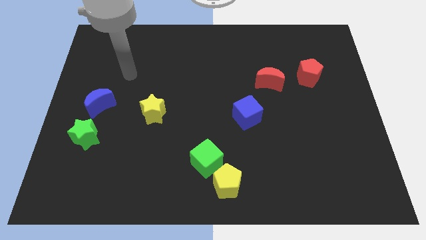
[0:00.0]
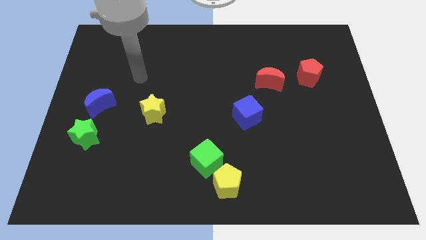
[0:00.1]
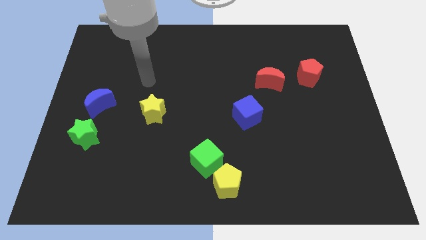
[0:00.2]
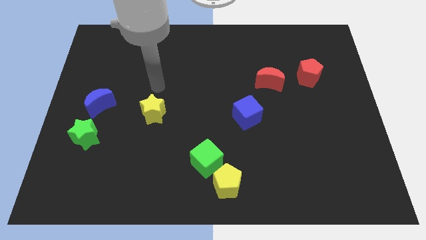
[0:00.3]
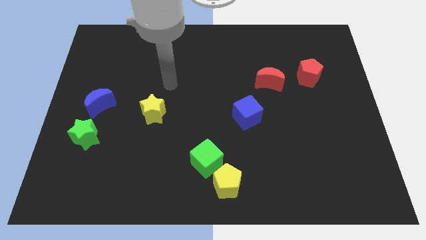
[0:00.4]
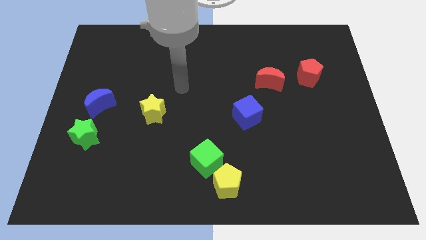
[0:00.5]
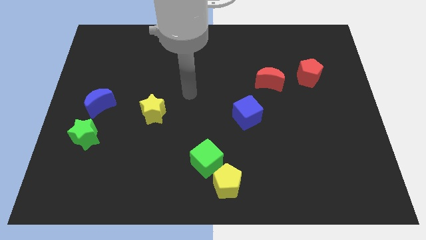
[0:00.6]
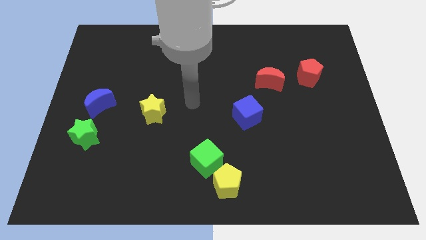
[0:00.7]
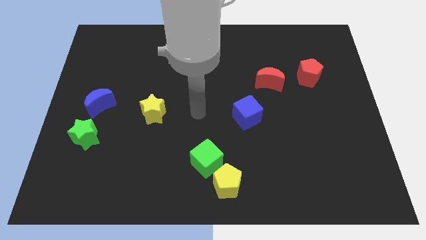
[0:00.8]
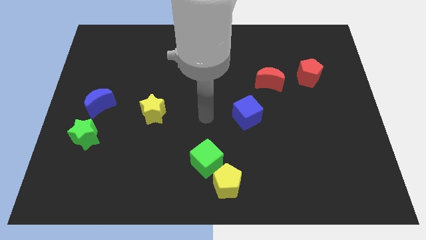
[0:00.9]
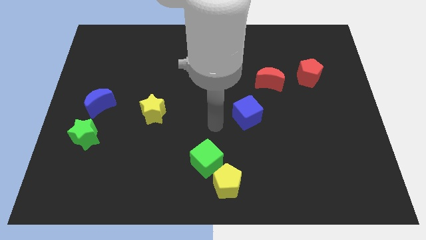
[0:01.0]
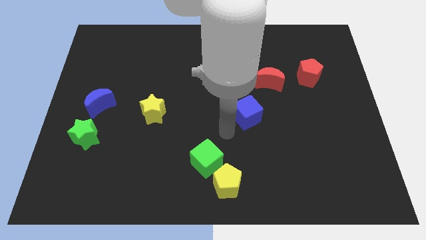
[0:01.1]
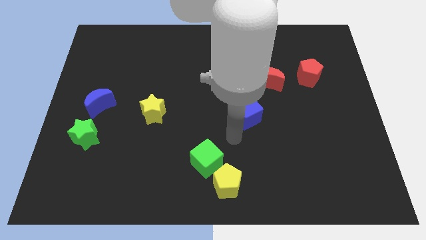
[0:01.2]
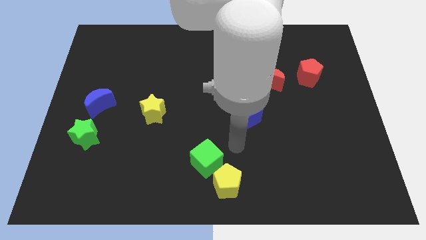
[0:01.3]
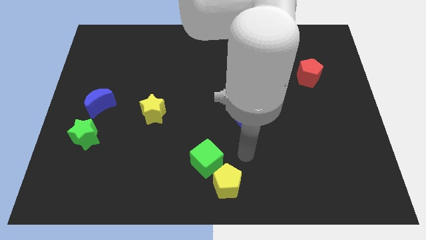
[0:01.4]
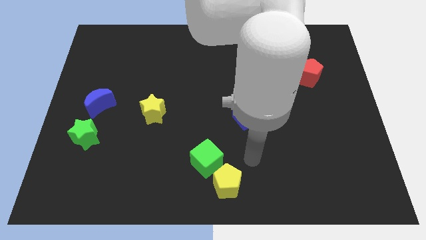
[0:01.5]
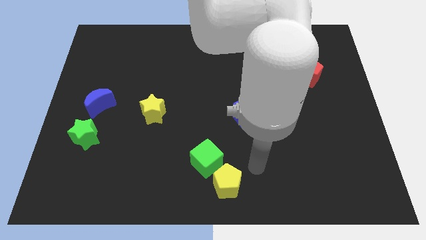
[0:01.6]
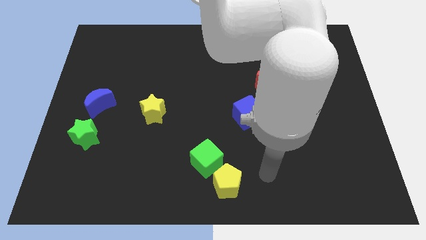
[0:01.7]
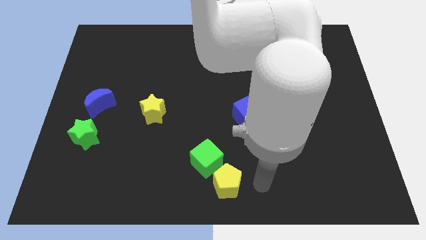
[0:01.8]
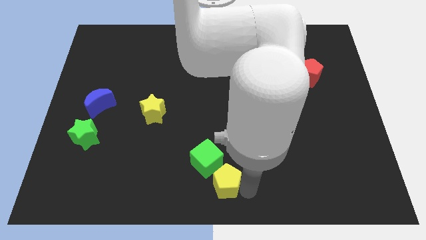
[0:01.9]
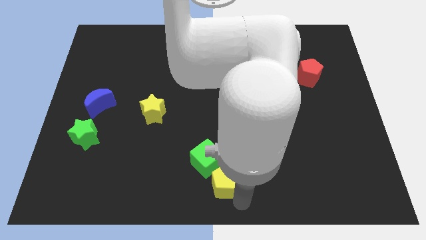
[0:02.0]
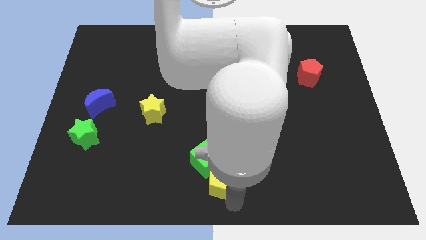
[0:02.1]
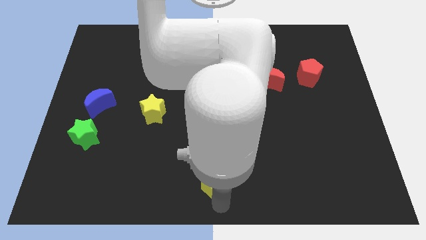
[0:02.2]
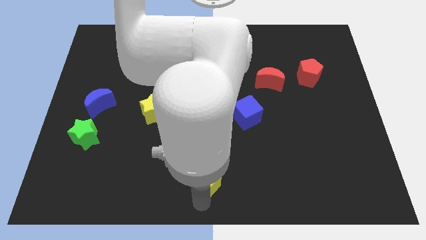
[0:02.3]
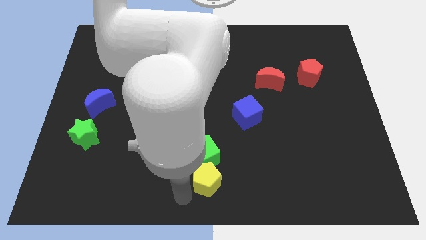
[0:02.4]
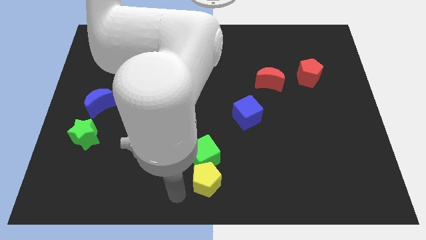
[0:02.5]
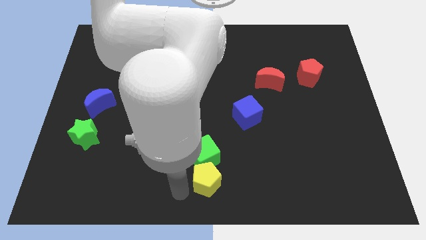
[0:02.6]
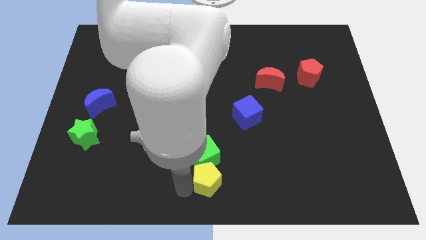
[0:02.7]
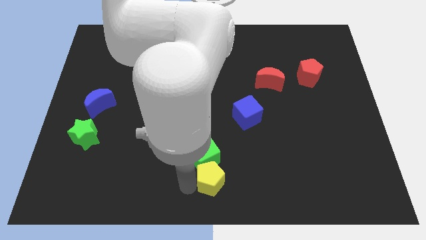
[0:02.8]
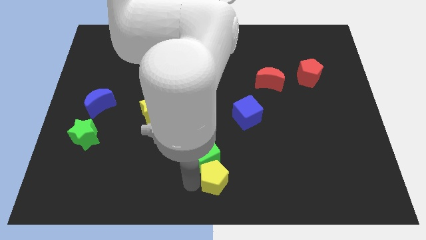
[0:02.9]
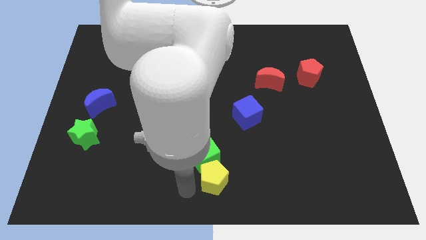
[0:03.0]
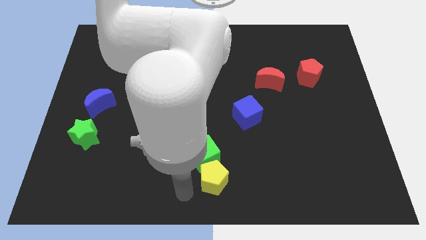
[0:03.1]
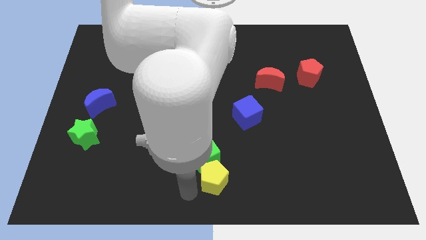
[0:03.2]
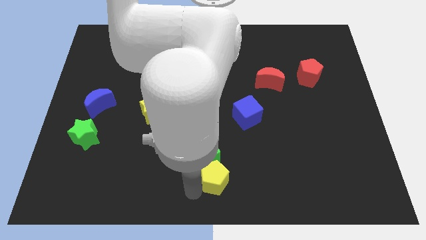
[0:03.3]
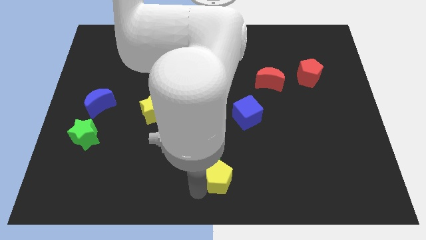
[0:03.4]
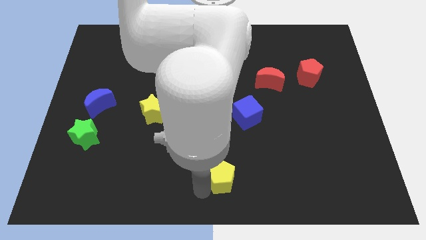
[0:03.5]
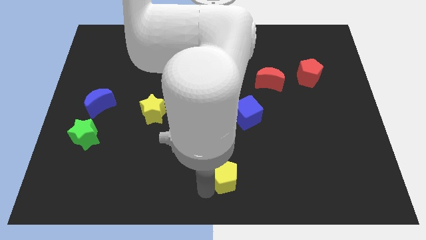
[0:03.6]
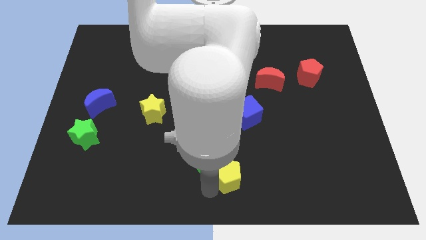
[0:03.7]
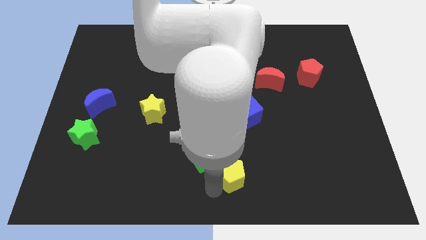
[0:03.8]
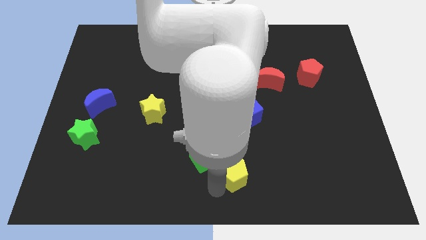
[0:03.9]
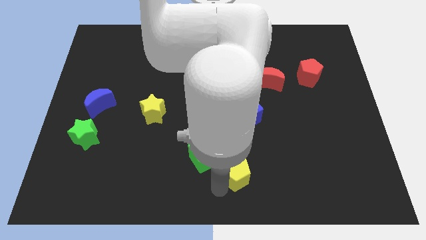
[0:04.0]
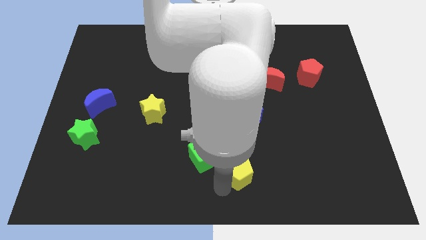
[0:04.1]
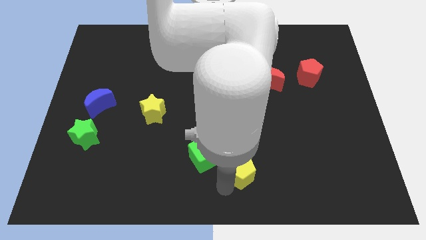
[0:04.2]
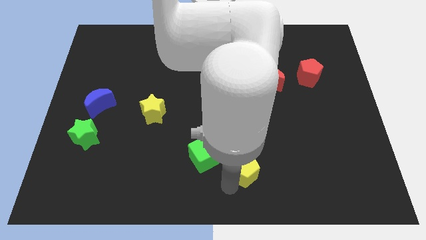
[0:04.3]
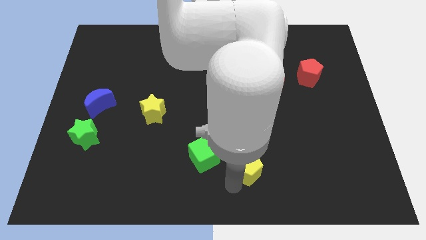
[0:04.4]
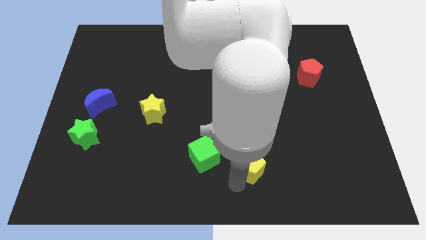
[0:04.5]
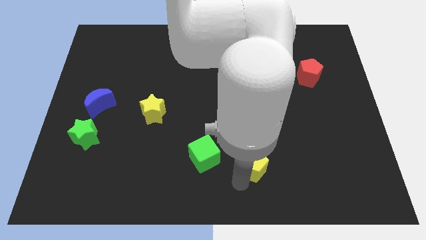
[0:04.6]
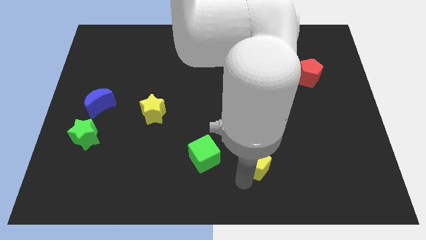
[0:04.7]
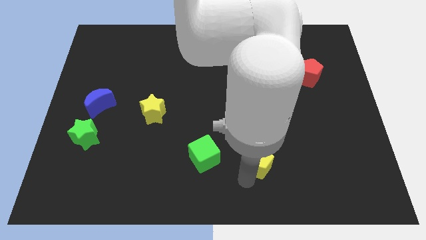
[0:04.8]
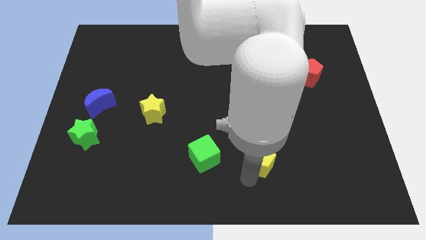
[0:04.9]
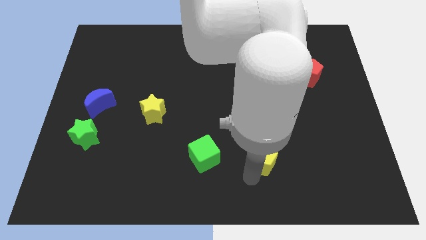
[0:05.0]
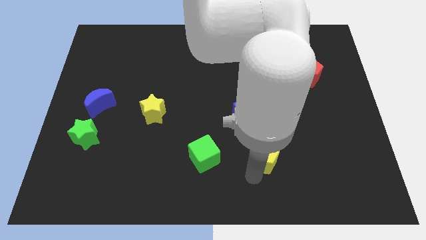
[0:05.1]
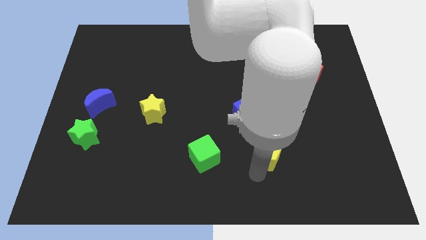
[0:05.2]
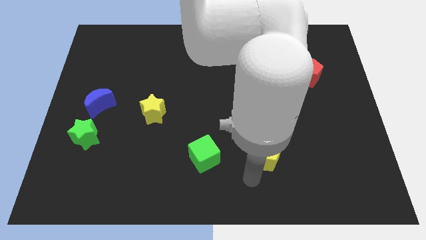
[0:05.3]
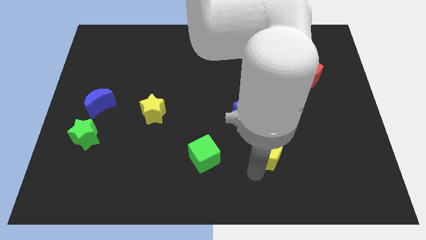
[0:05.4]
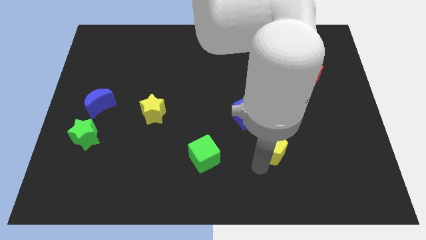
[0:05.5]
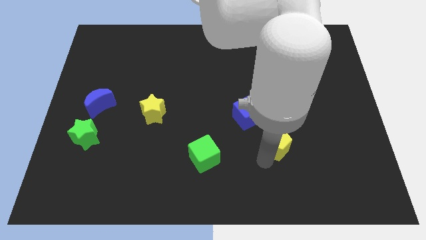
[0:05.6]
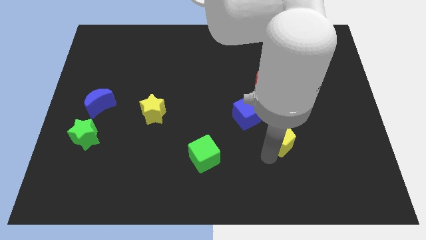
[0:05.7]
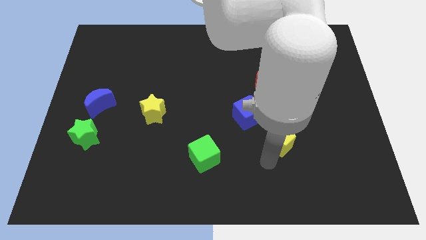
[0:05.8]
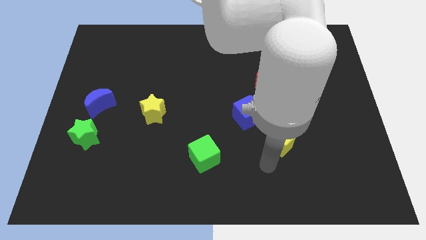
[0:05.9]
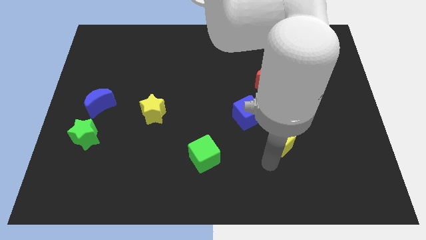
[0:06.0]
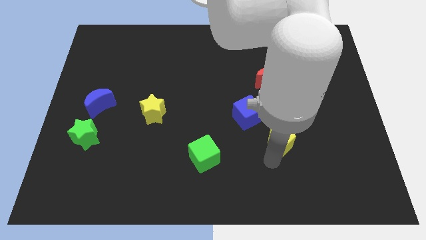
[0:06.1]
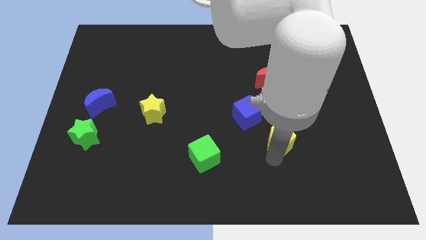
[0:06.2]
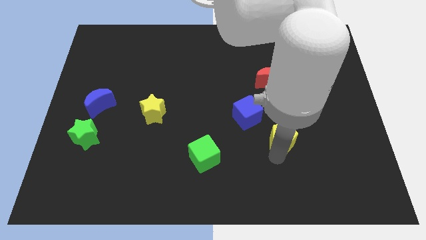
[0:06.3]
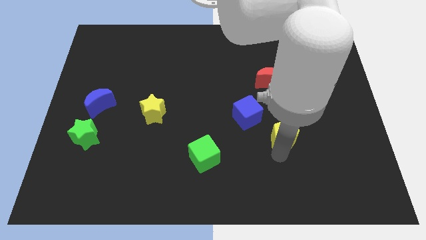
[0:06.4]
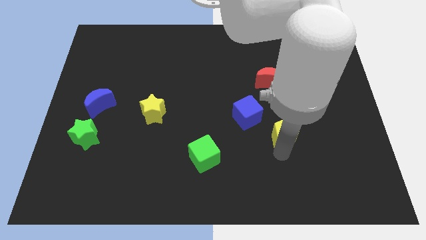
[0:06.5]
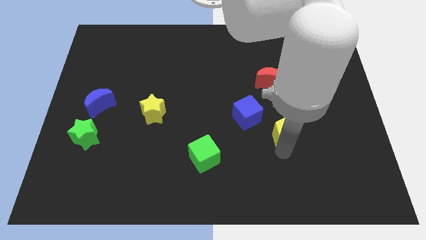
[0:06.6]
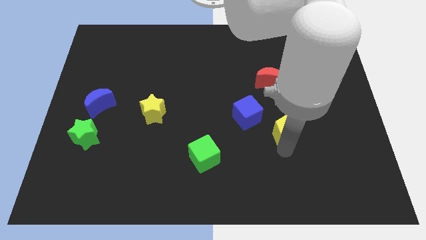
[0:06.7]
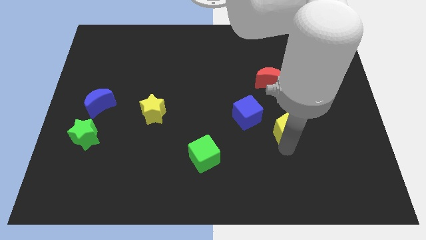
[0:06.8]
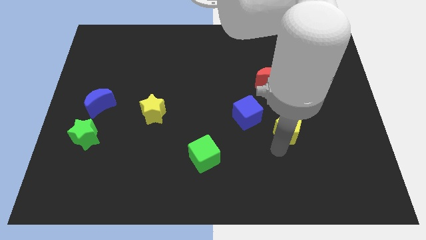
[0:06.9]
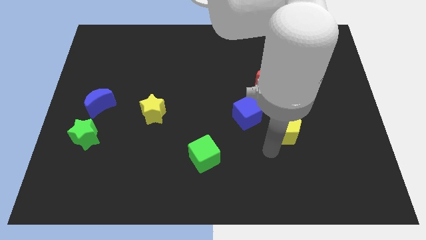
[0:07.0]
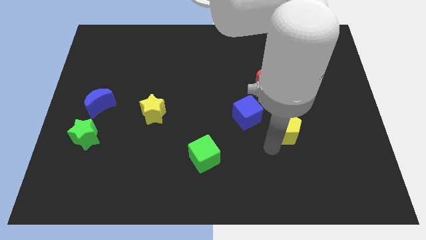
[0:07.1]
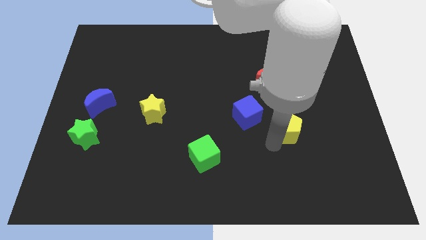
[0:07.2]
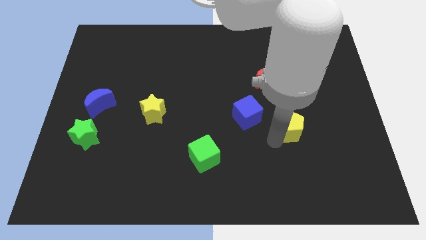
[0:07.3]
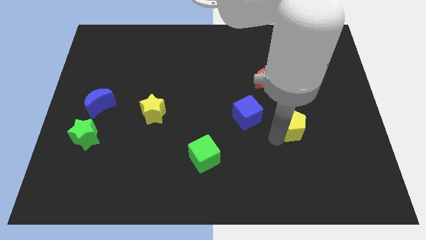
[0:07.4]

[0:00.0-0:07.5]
push the yellow pentagon up and to the right diagonally

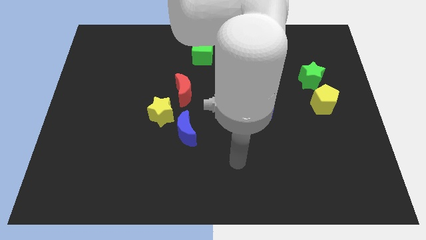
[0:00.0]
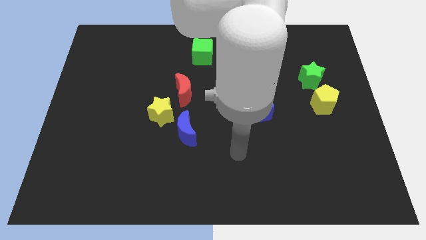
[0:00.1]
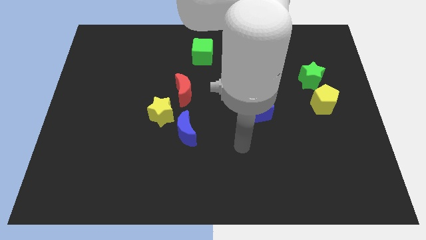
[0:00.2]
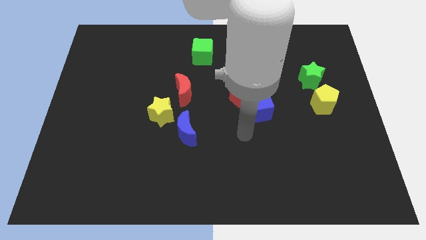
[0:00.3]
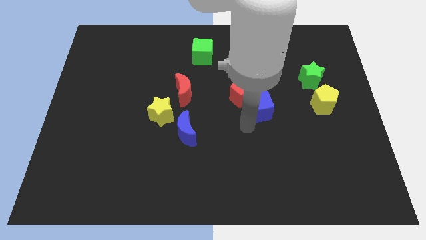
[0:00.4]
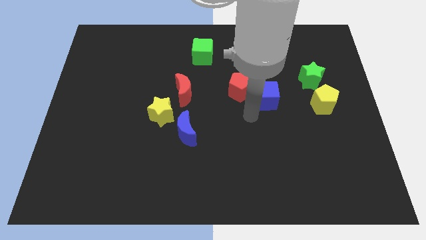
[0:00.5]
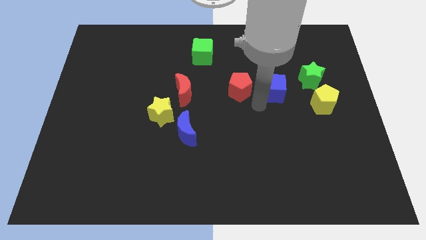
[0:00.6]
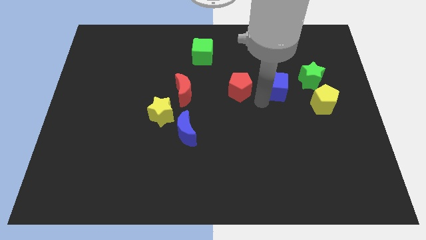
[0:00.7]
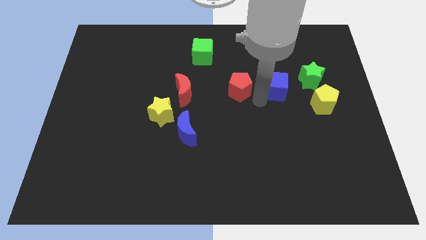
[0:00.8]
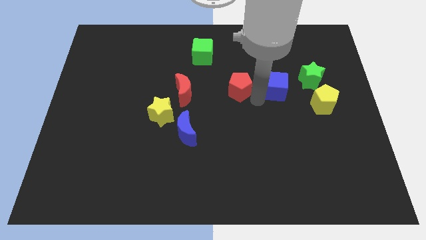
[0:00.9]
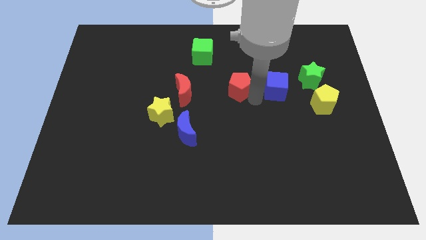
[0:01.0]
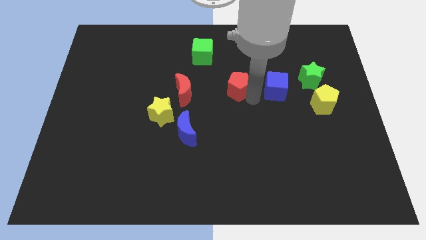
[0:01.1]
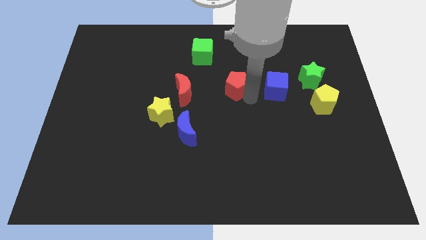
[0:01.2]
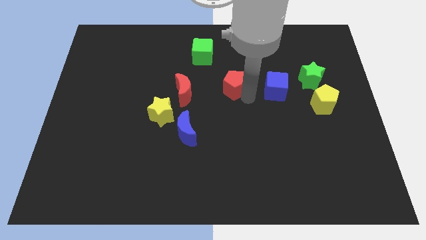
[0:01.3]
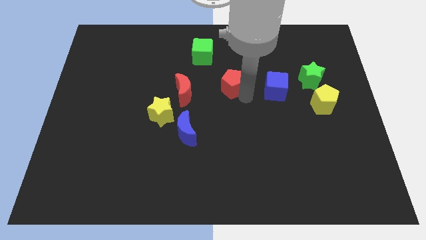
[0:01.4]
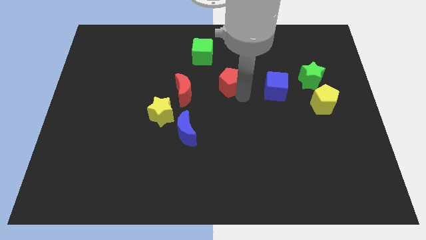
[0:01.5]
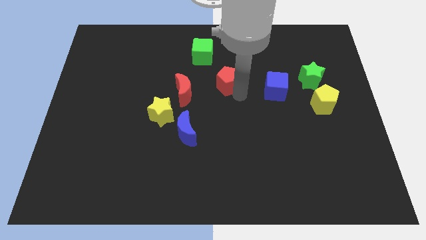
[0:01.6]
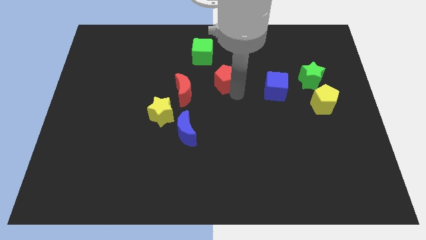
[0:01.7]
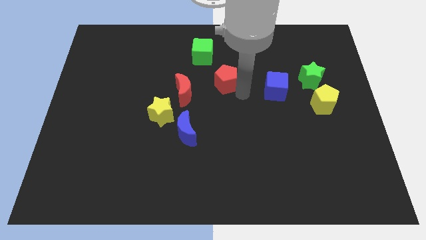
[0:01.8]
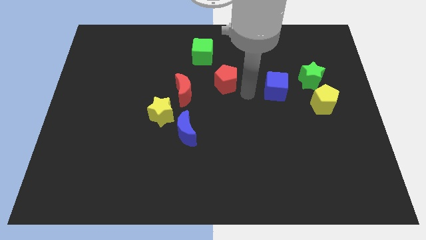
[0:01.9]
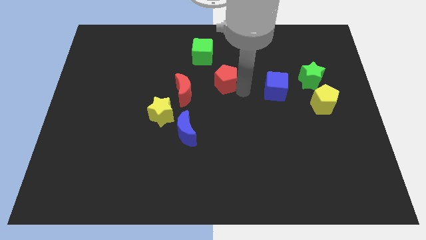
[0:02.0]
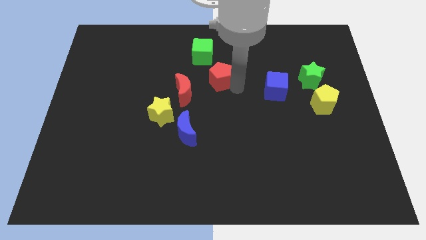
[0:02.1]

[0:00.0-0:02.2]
slightly slide the red pentagon upwards and then left
